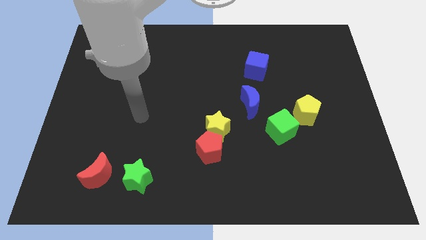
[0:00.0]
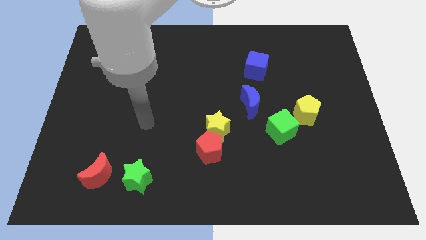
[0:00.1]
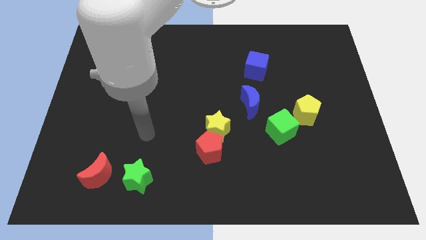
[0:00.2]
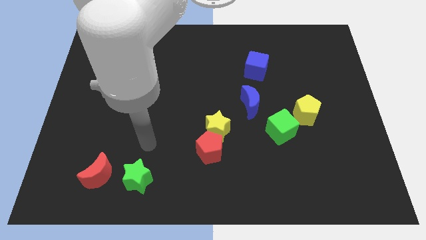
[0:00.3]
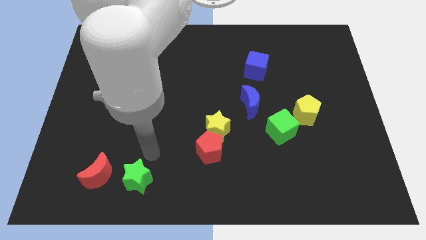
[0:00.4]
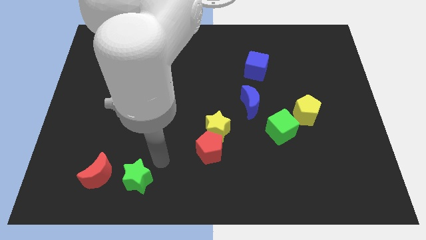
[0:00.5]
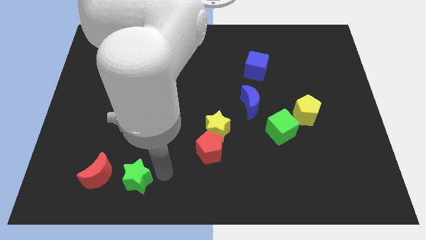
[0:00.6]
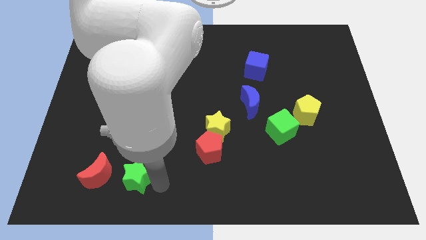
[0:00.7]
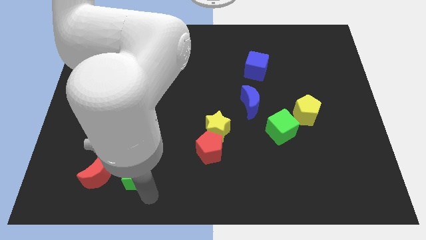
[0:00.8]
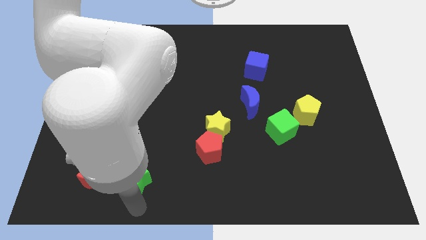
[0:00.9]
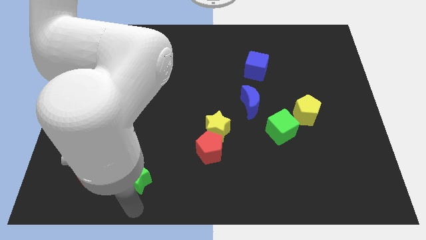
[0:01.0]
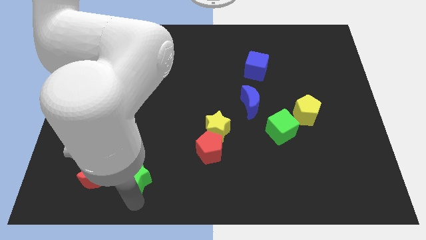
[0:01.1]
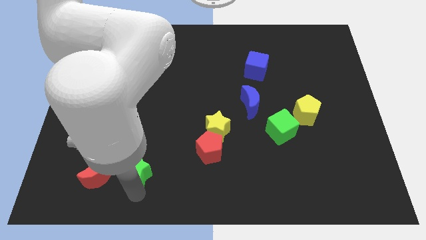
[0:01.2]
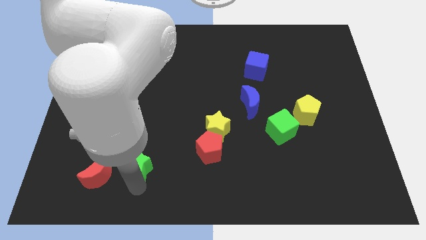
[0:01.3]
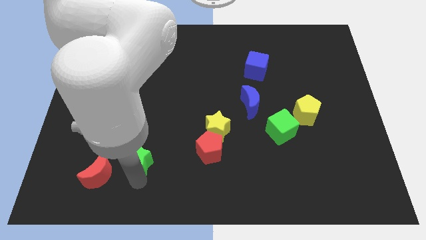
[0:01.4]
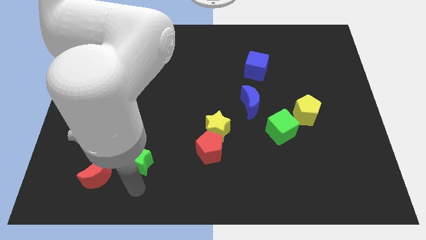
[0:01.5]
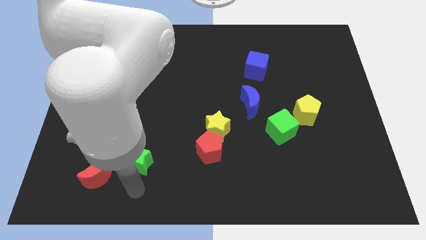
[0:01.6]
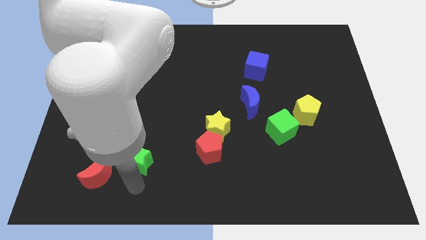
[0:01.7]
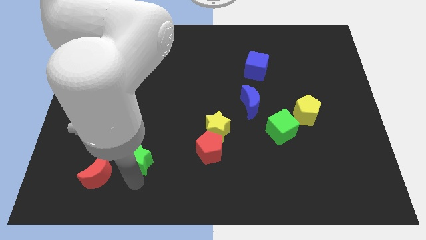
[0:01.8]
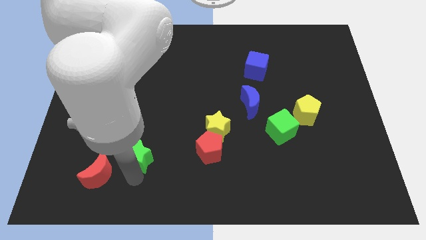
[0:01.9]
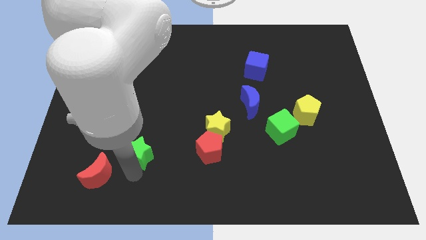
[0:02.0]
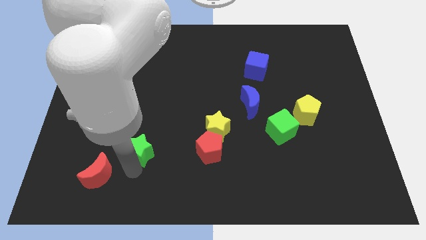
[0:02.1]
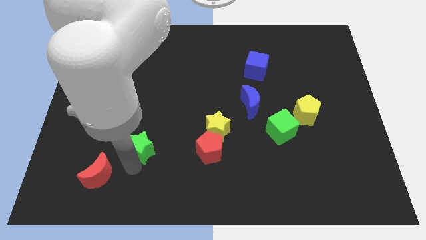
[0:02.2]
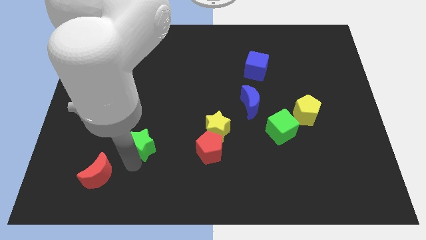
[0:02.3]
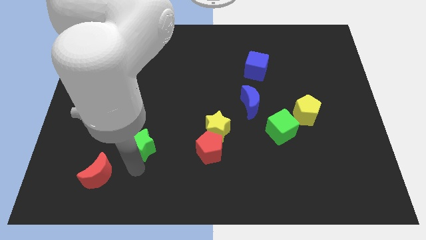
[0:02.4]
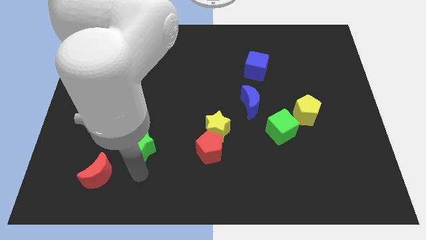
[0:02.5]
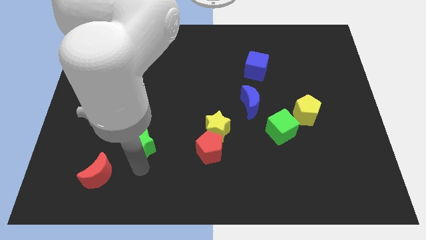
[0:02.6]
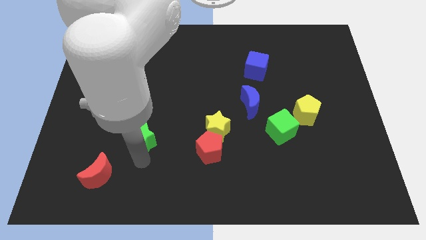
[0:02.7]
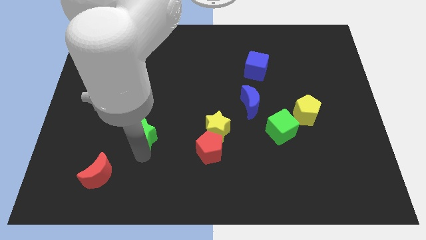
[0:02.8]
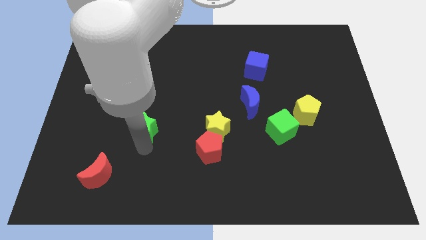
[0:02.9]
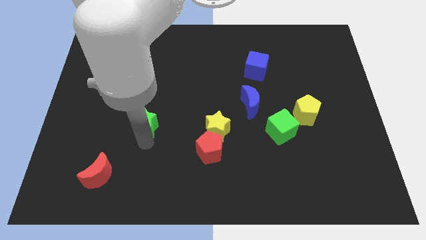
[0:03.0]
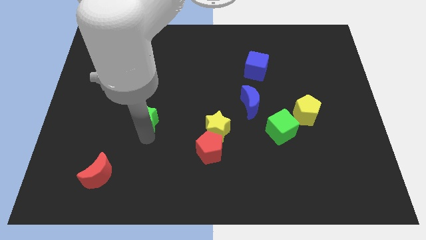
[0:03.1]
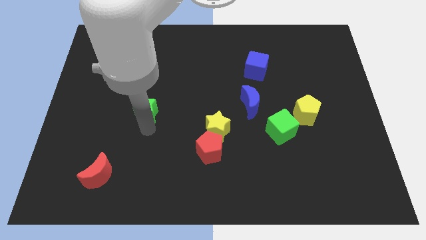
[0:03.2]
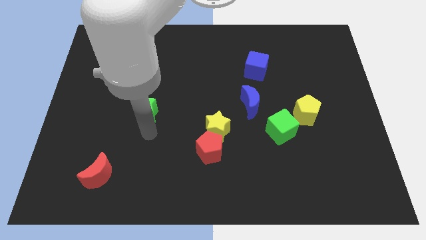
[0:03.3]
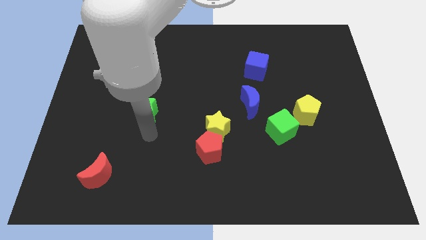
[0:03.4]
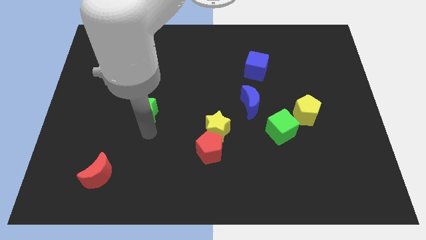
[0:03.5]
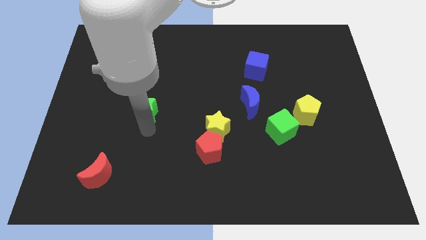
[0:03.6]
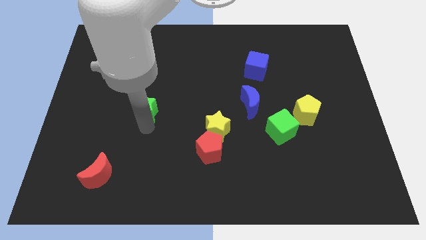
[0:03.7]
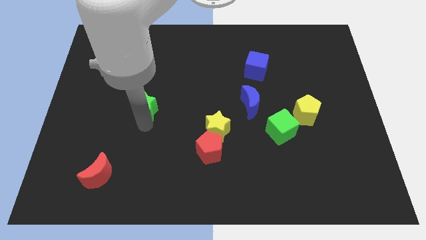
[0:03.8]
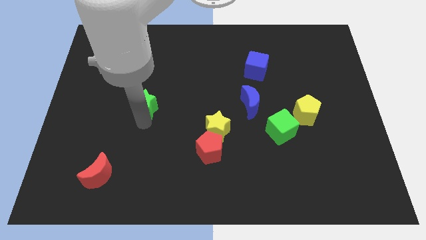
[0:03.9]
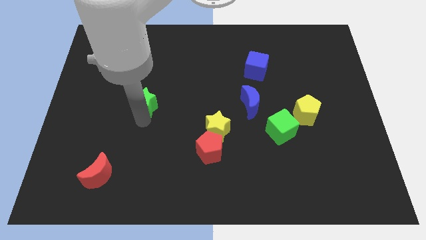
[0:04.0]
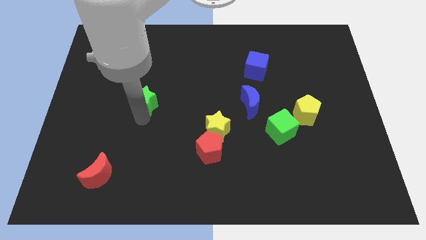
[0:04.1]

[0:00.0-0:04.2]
push the green star up

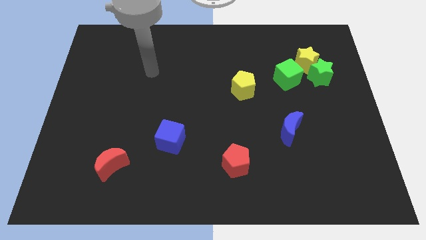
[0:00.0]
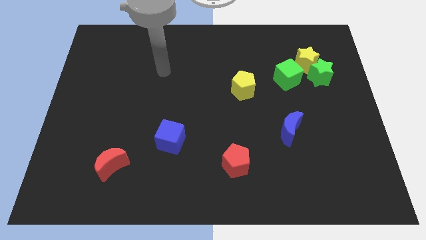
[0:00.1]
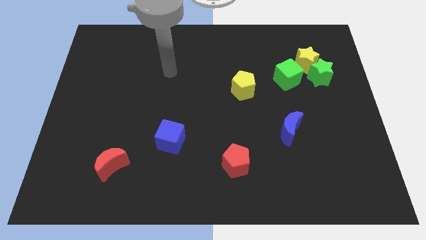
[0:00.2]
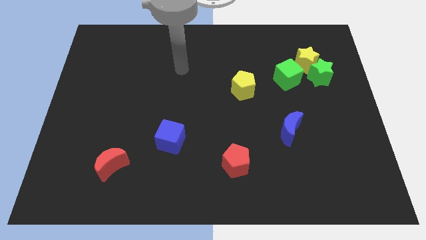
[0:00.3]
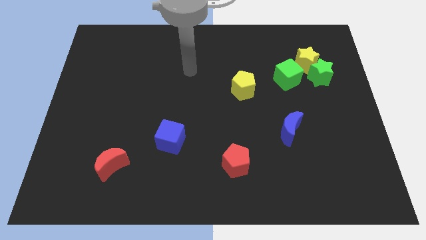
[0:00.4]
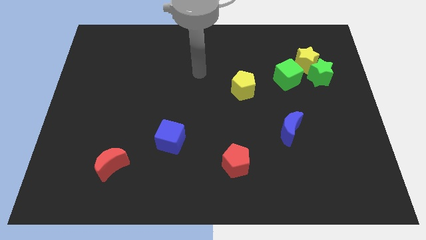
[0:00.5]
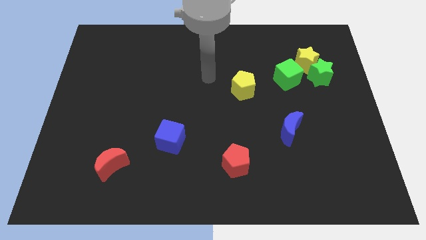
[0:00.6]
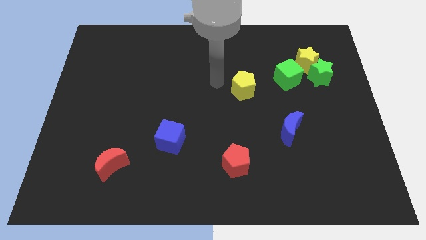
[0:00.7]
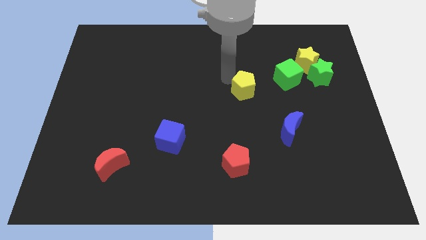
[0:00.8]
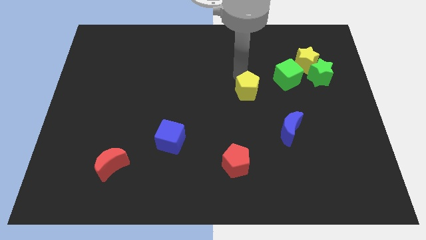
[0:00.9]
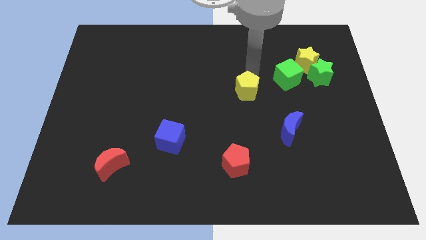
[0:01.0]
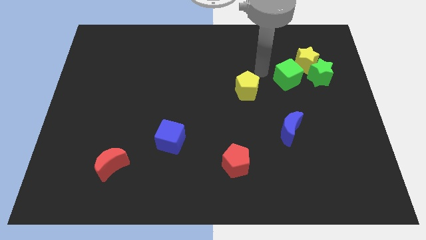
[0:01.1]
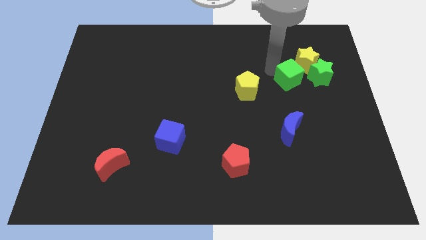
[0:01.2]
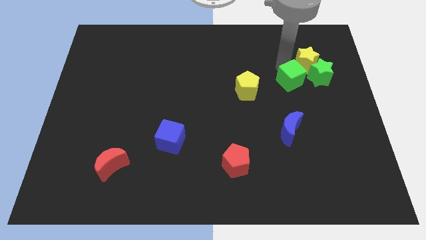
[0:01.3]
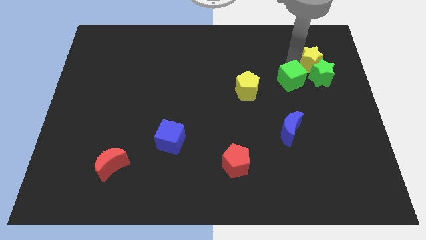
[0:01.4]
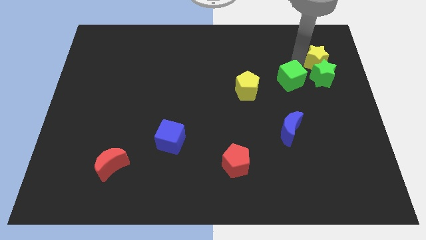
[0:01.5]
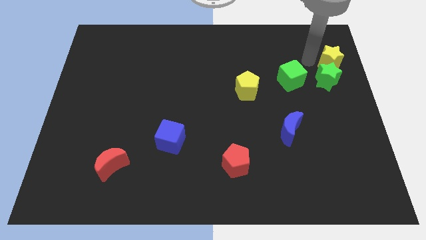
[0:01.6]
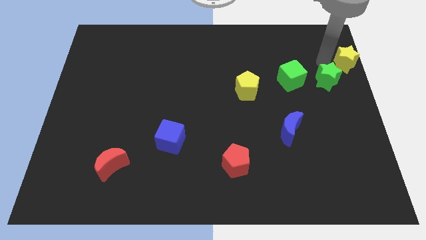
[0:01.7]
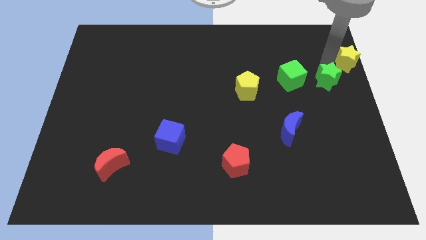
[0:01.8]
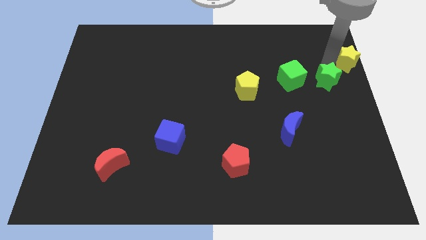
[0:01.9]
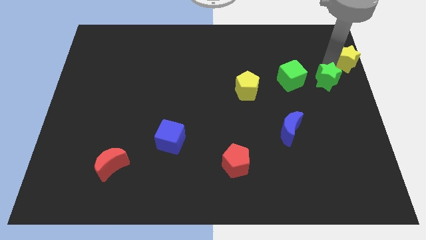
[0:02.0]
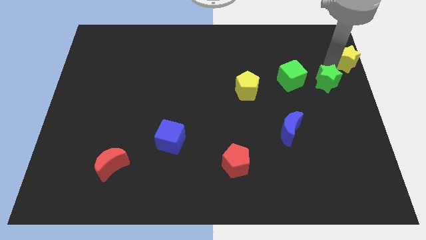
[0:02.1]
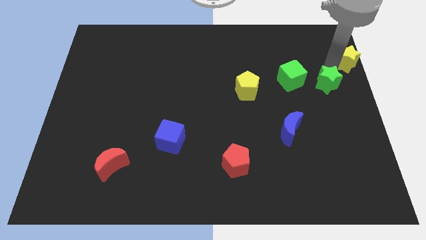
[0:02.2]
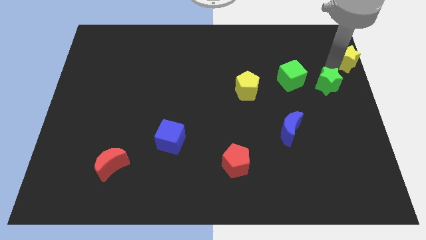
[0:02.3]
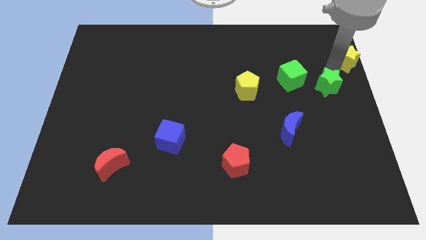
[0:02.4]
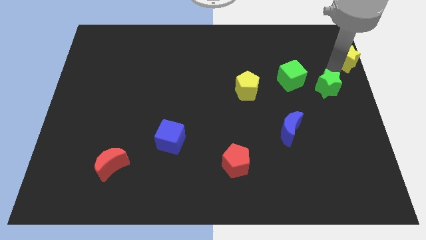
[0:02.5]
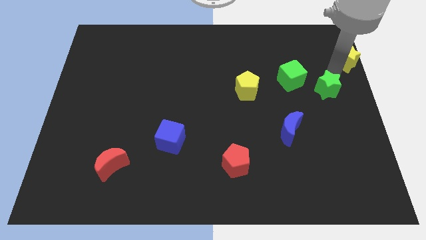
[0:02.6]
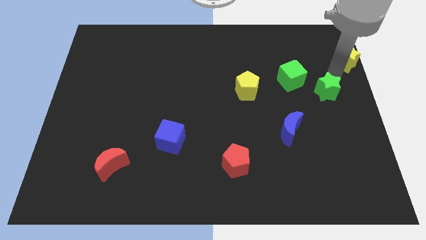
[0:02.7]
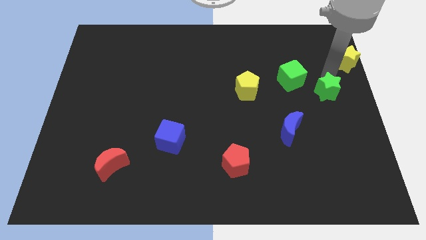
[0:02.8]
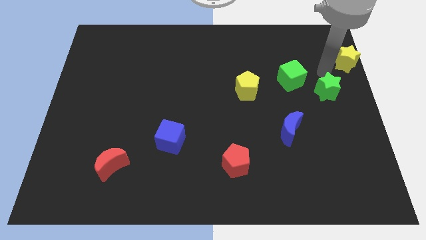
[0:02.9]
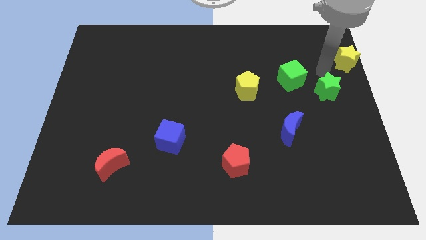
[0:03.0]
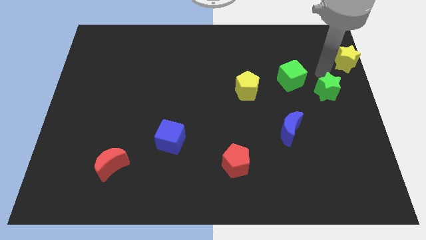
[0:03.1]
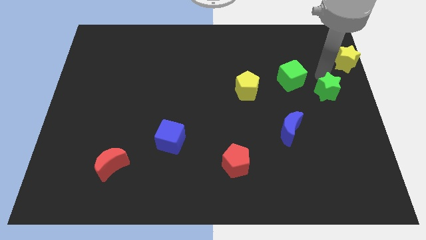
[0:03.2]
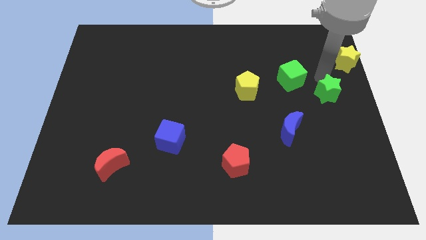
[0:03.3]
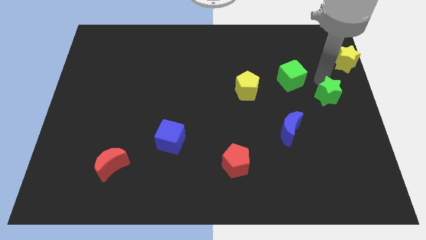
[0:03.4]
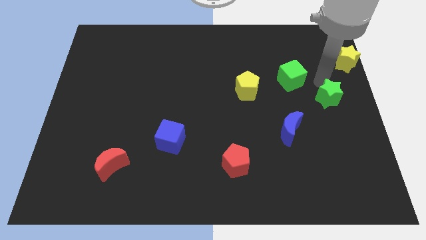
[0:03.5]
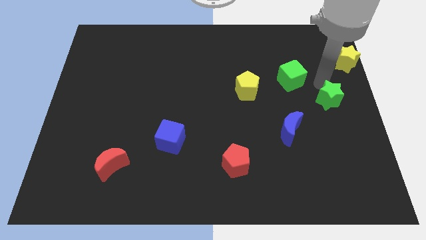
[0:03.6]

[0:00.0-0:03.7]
slightly push the green star down

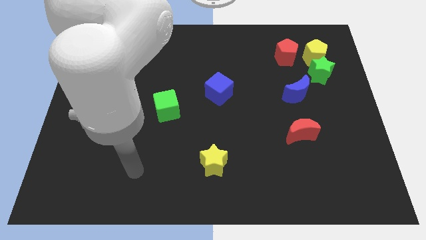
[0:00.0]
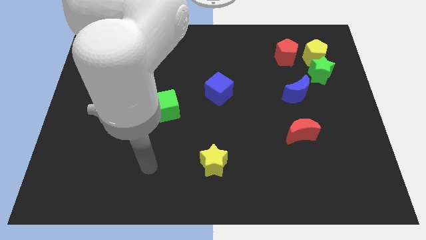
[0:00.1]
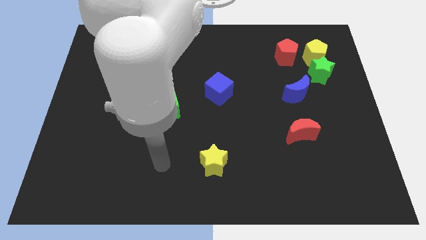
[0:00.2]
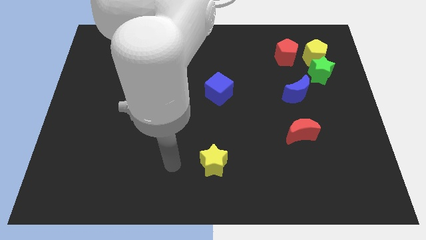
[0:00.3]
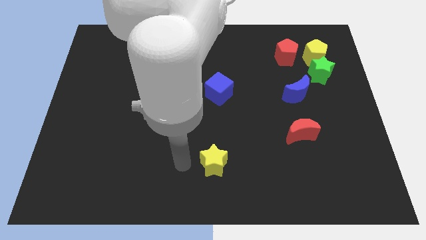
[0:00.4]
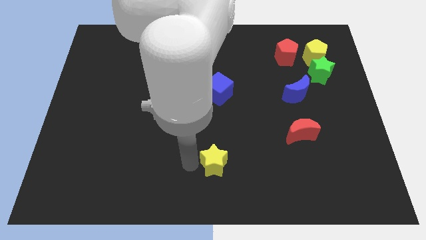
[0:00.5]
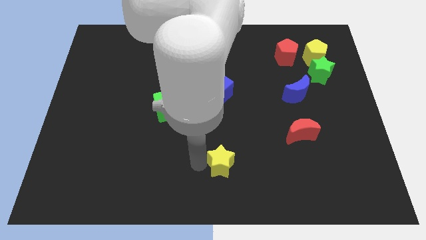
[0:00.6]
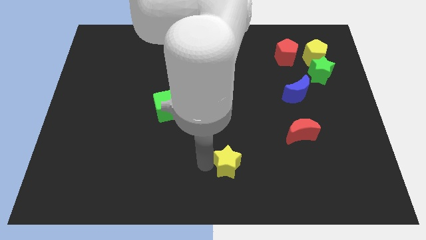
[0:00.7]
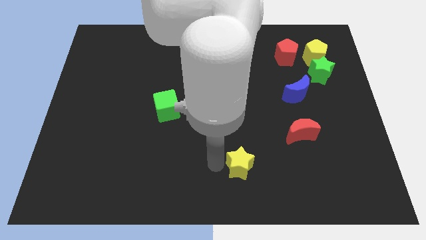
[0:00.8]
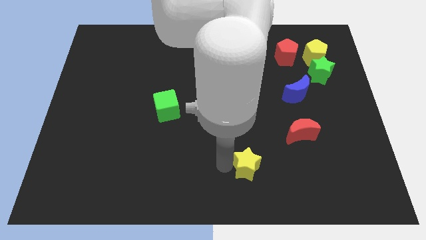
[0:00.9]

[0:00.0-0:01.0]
slide the yellow star right a little
